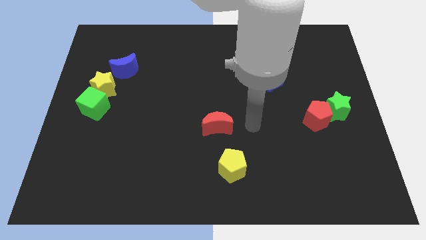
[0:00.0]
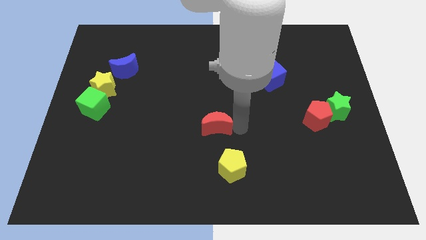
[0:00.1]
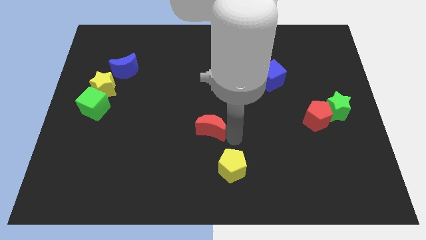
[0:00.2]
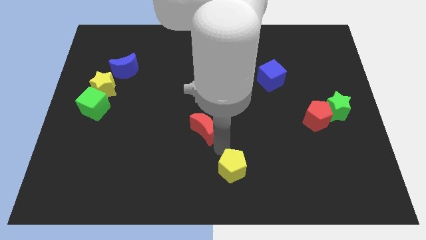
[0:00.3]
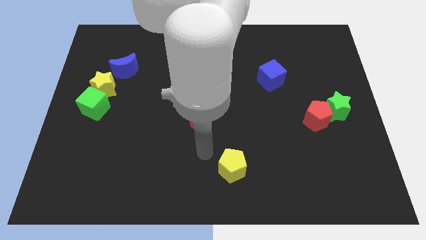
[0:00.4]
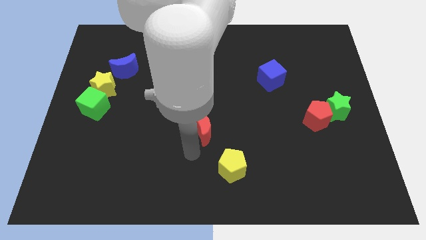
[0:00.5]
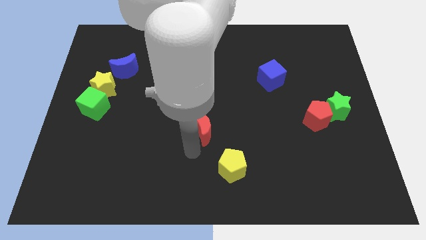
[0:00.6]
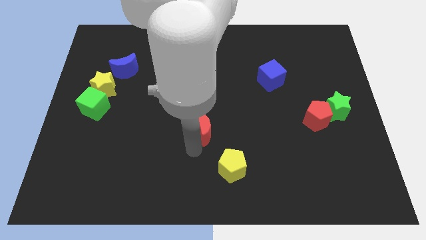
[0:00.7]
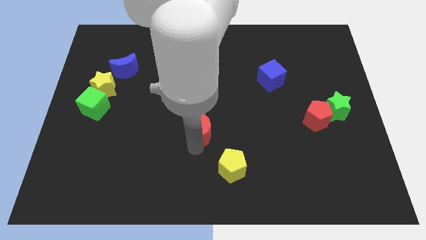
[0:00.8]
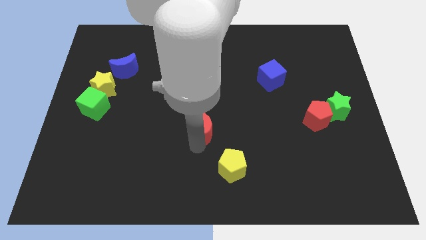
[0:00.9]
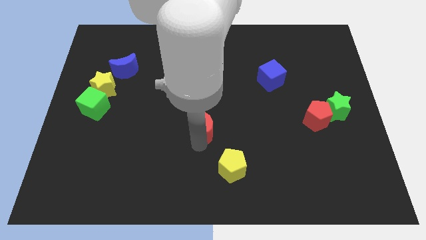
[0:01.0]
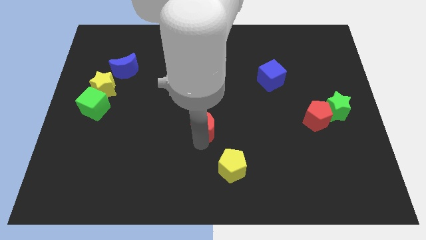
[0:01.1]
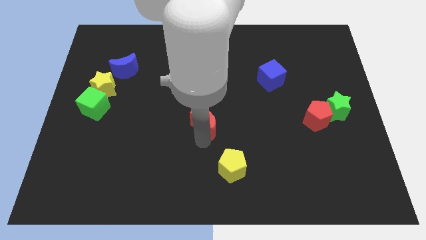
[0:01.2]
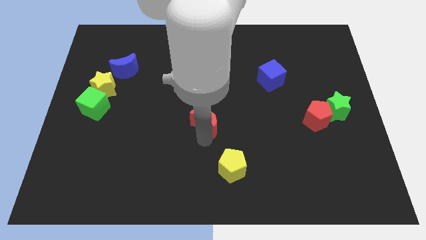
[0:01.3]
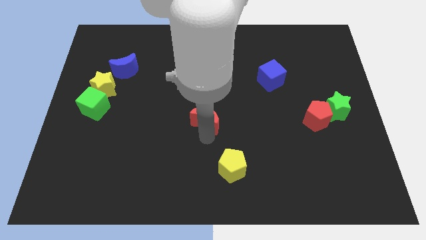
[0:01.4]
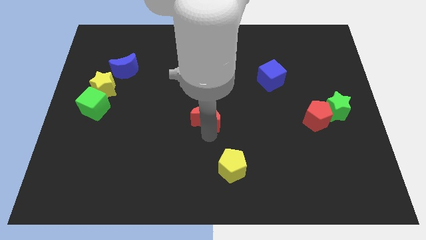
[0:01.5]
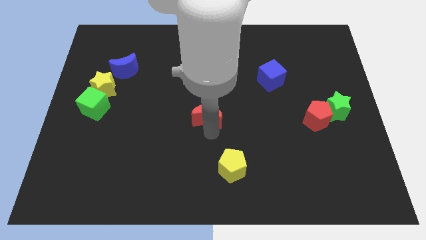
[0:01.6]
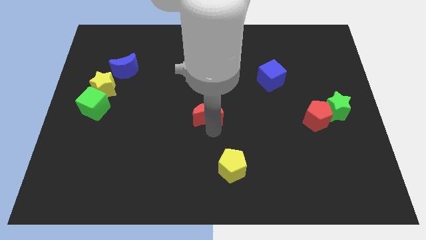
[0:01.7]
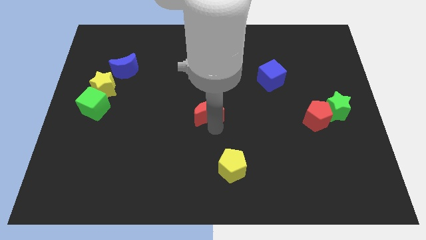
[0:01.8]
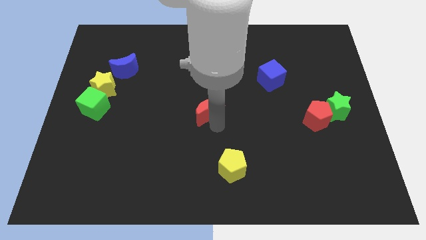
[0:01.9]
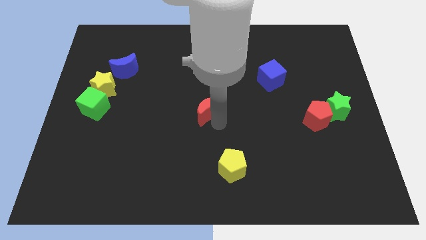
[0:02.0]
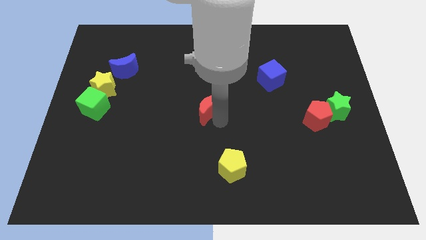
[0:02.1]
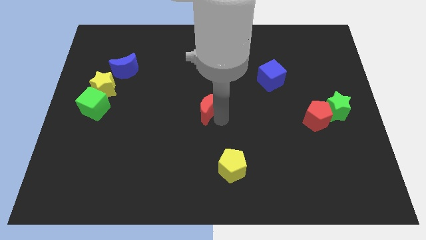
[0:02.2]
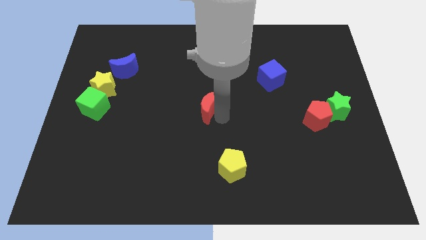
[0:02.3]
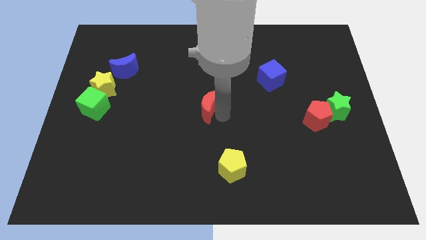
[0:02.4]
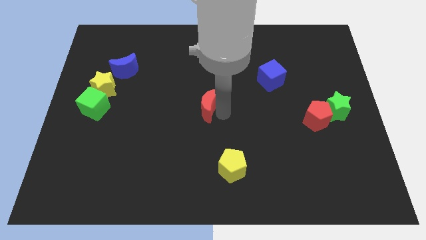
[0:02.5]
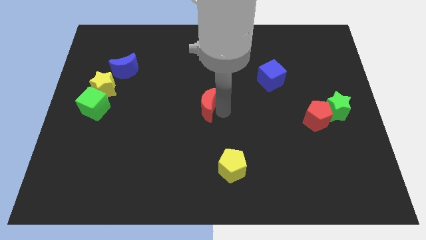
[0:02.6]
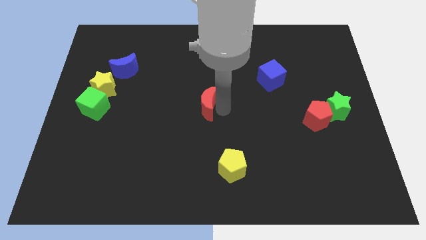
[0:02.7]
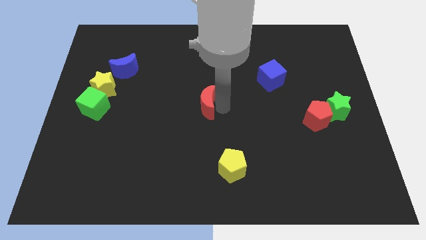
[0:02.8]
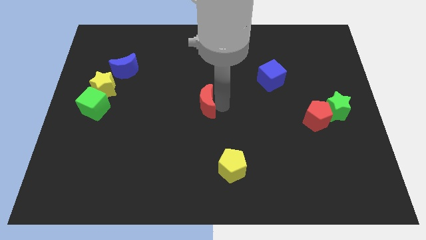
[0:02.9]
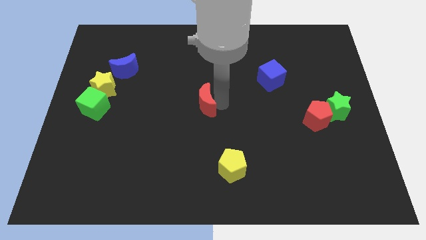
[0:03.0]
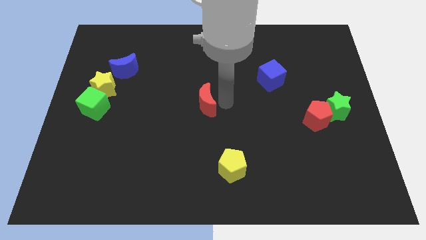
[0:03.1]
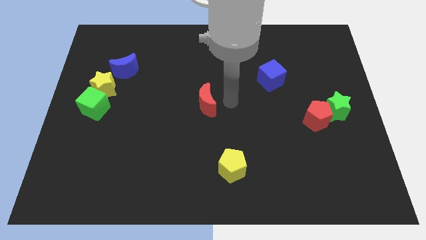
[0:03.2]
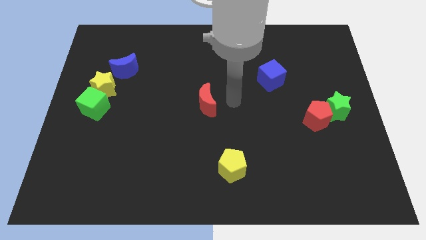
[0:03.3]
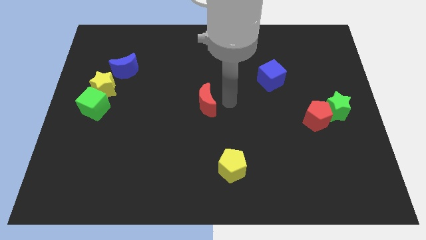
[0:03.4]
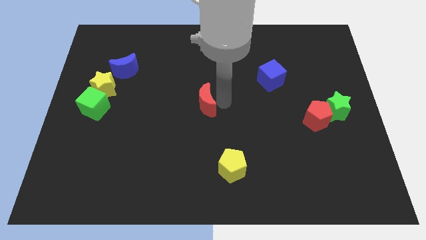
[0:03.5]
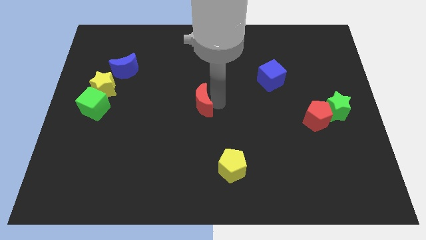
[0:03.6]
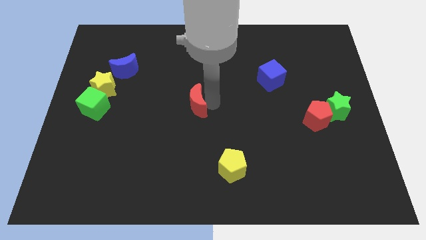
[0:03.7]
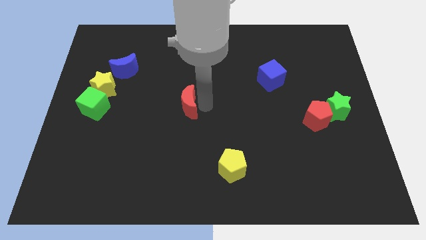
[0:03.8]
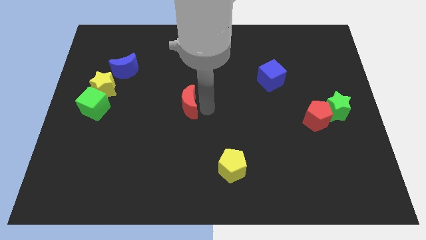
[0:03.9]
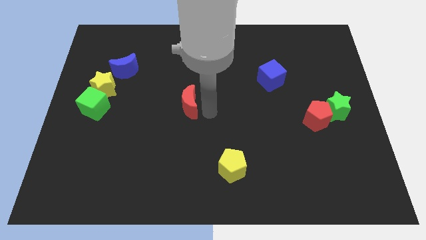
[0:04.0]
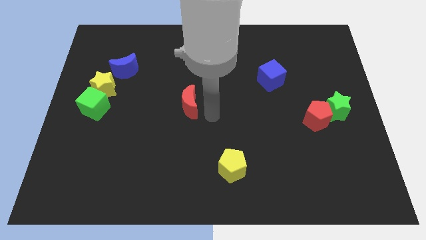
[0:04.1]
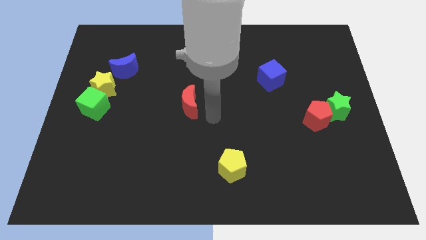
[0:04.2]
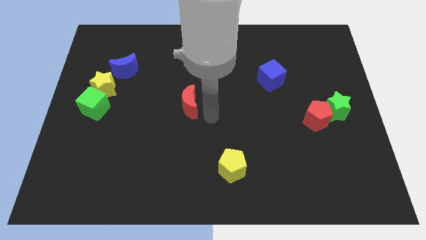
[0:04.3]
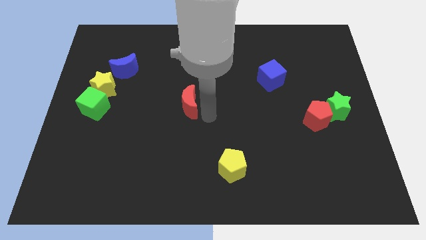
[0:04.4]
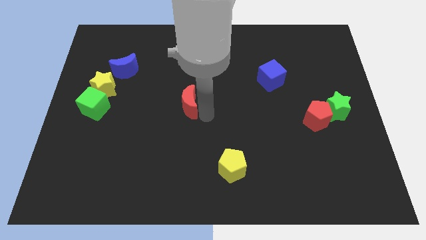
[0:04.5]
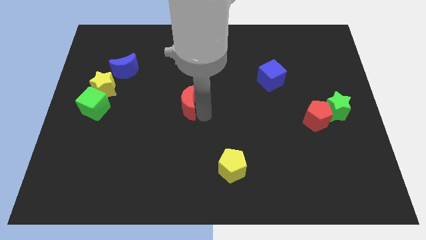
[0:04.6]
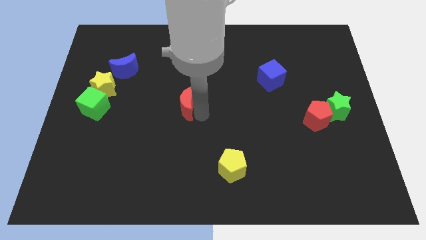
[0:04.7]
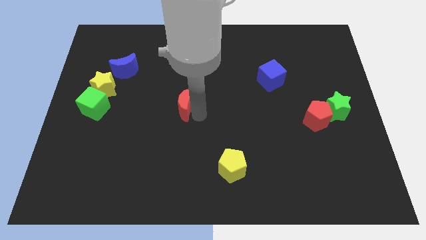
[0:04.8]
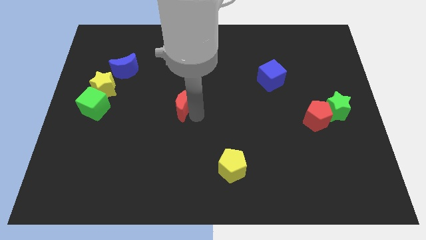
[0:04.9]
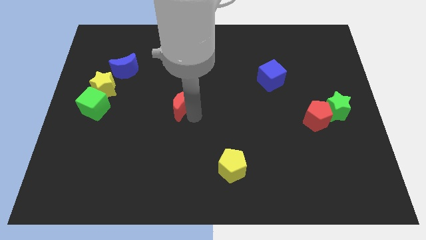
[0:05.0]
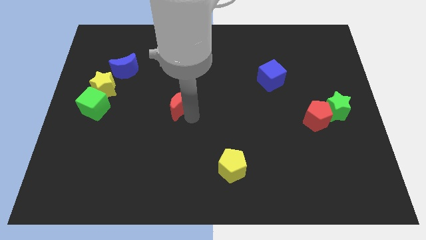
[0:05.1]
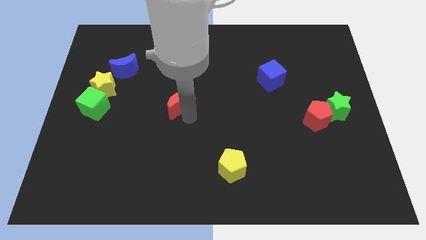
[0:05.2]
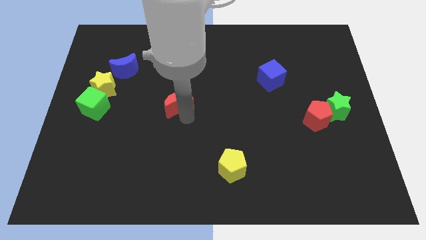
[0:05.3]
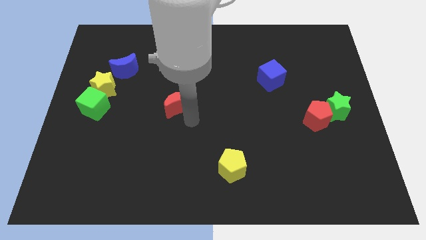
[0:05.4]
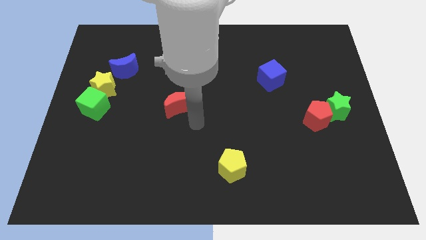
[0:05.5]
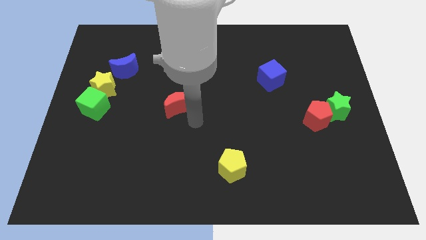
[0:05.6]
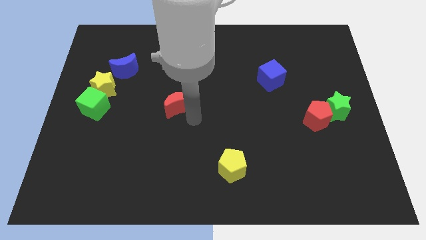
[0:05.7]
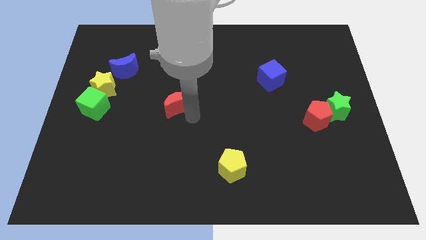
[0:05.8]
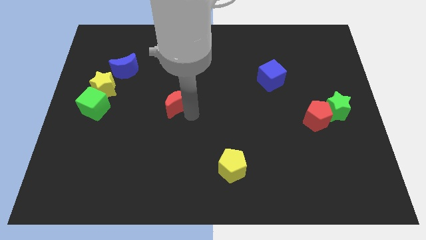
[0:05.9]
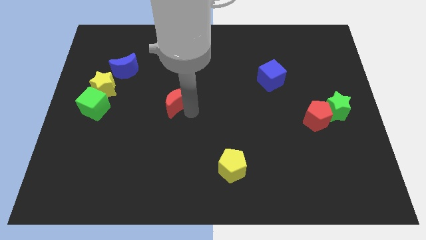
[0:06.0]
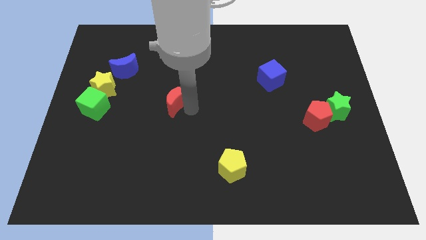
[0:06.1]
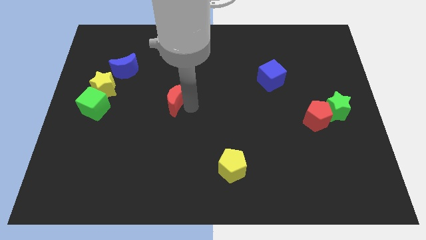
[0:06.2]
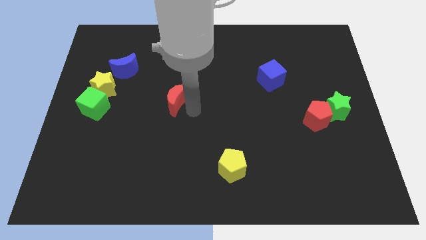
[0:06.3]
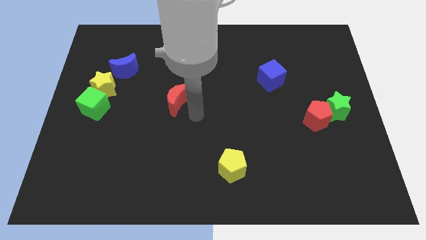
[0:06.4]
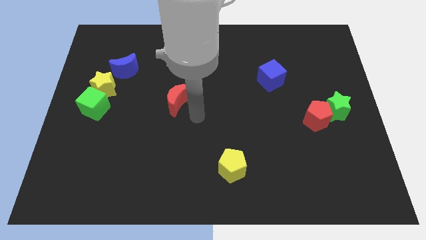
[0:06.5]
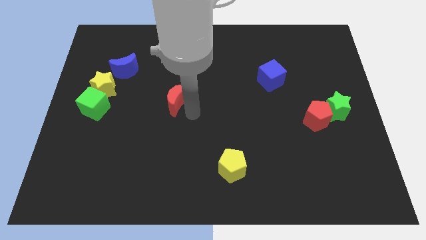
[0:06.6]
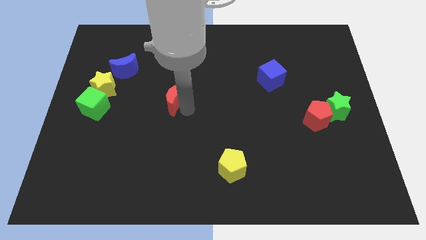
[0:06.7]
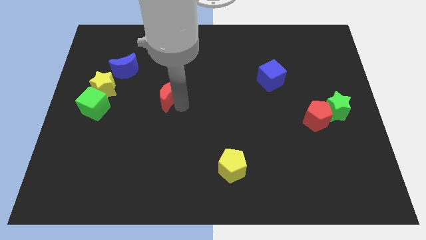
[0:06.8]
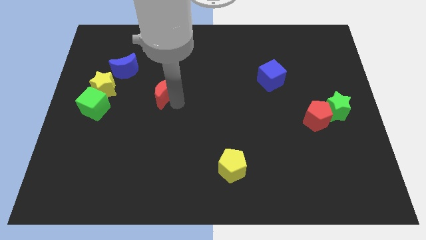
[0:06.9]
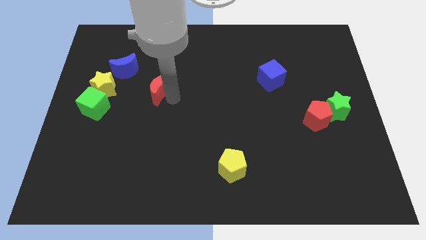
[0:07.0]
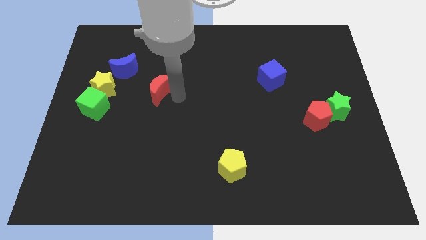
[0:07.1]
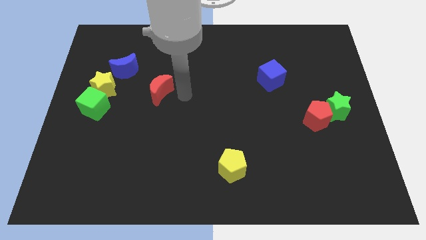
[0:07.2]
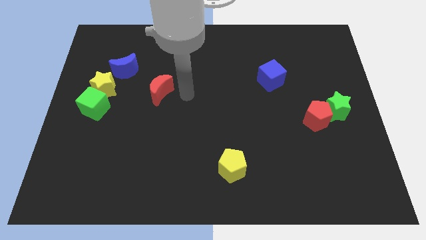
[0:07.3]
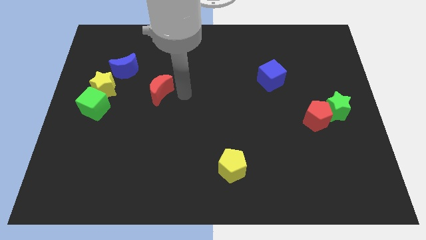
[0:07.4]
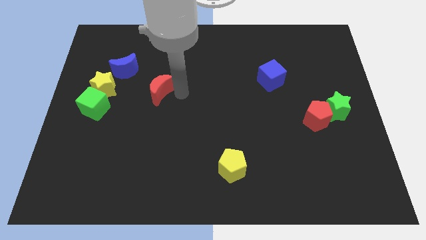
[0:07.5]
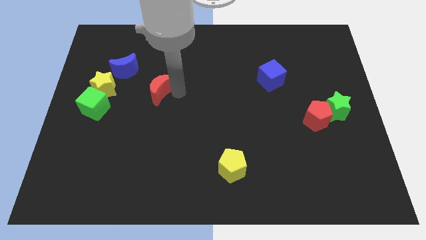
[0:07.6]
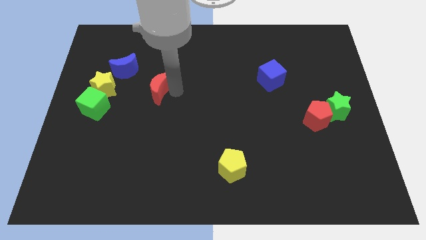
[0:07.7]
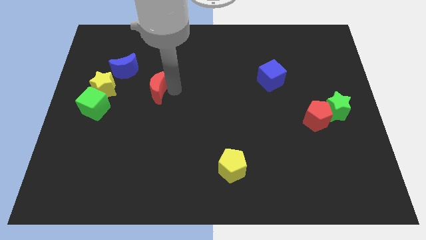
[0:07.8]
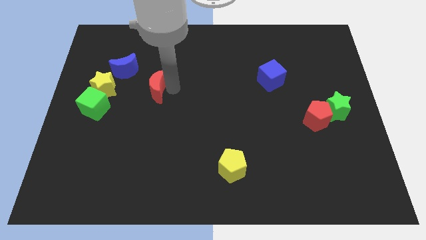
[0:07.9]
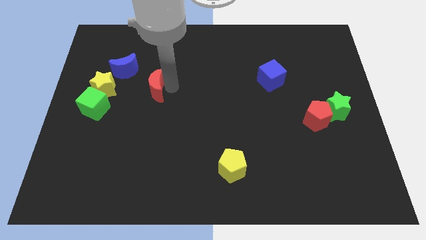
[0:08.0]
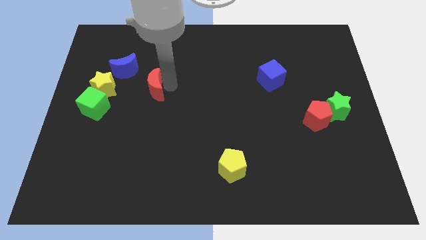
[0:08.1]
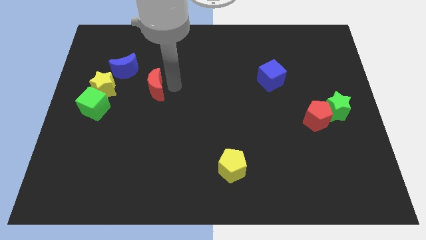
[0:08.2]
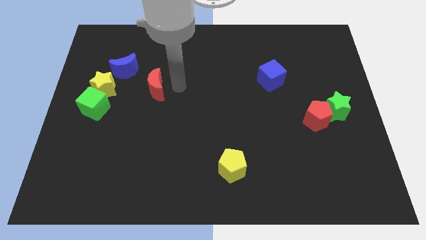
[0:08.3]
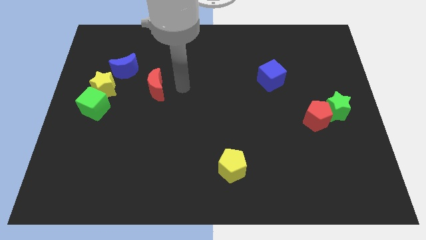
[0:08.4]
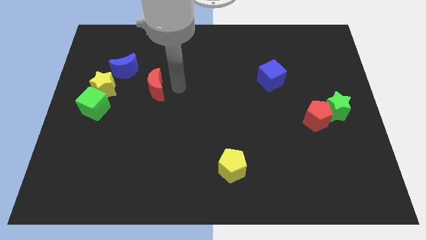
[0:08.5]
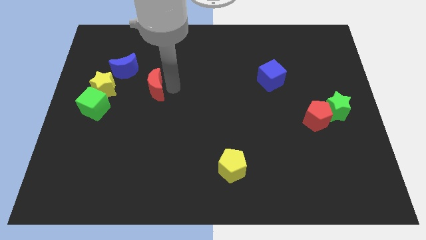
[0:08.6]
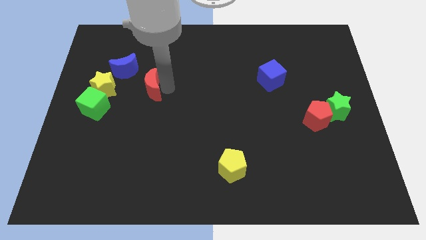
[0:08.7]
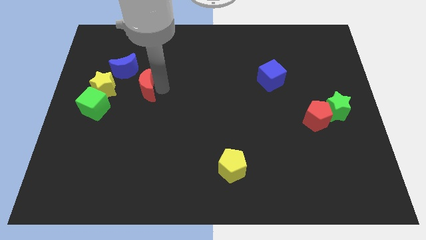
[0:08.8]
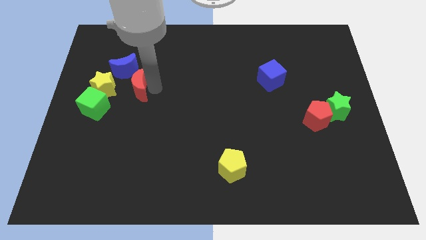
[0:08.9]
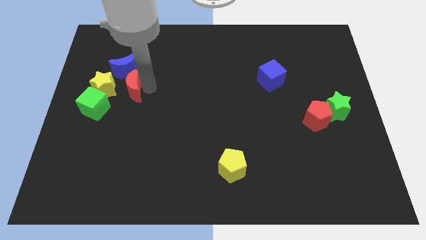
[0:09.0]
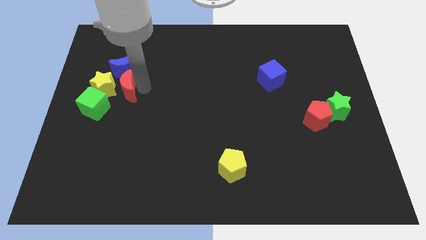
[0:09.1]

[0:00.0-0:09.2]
push the red moon next to the yellow star
